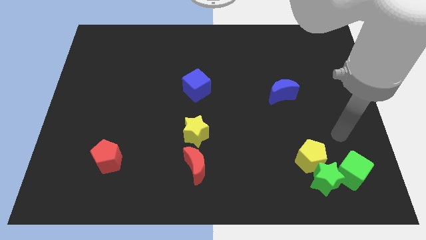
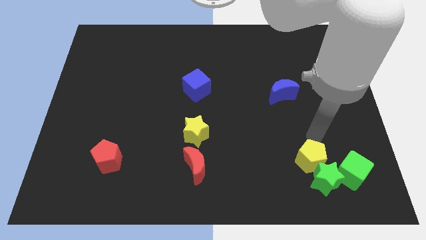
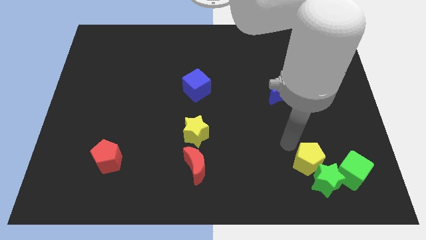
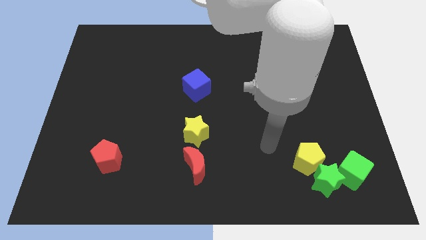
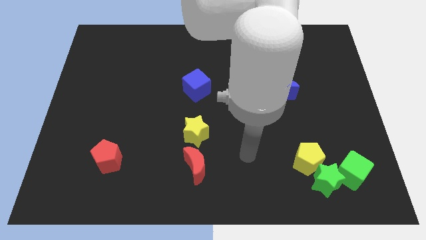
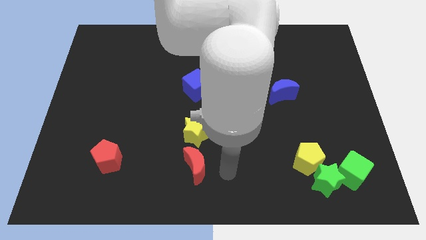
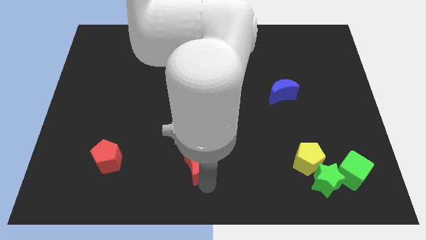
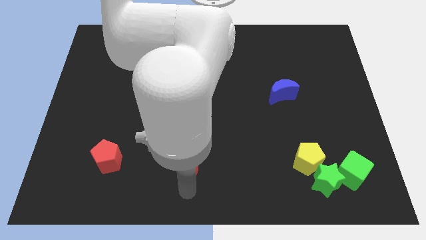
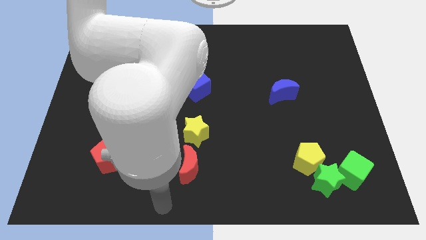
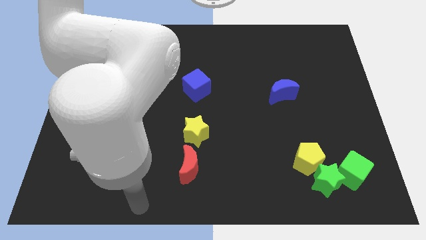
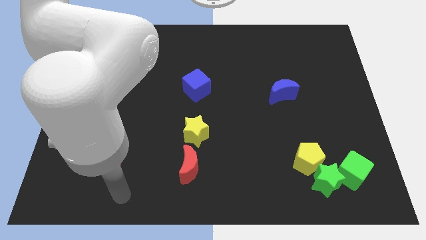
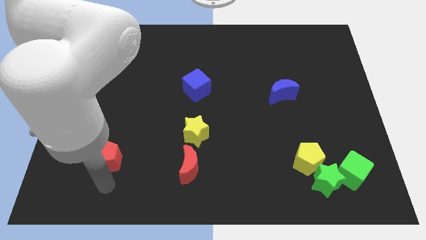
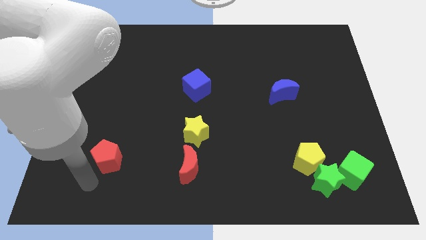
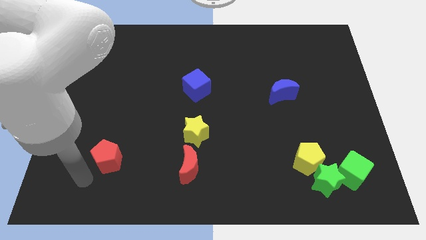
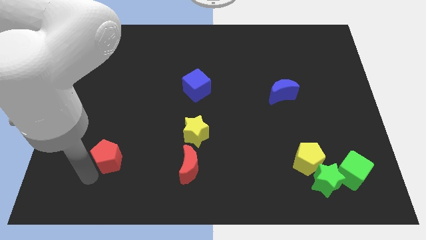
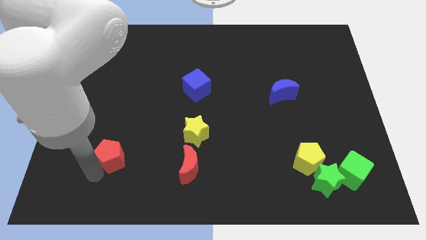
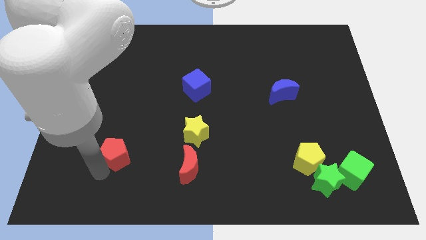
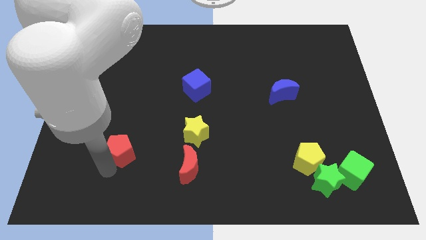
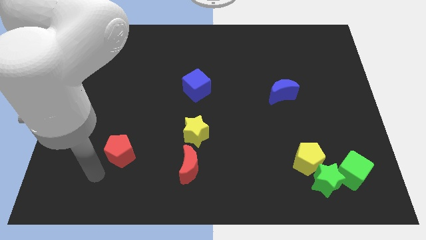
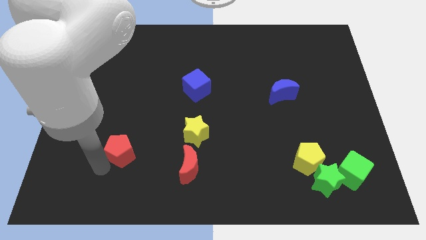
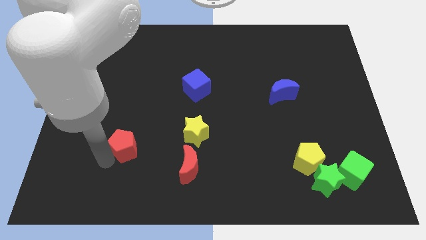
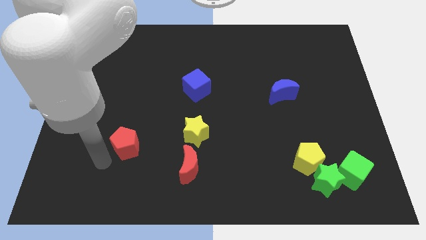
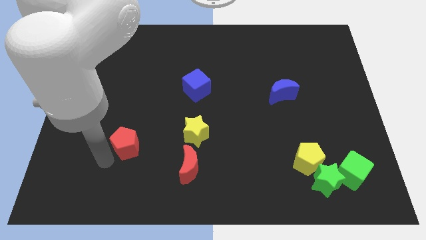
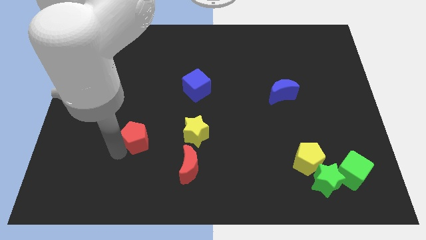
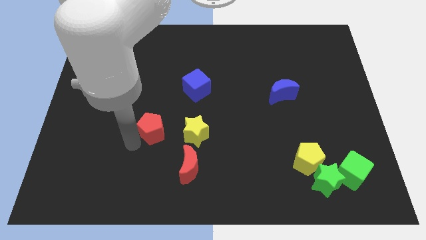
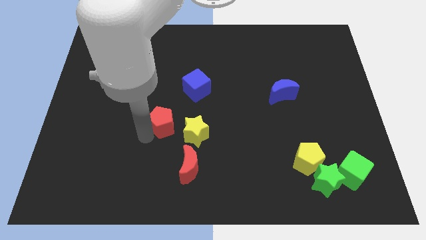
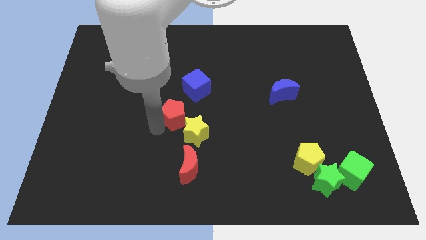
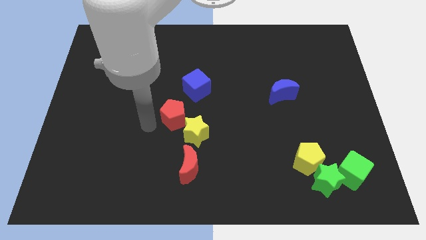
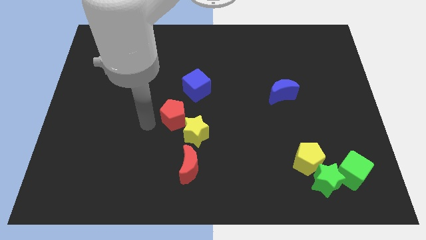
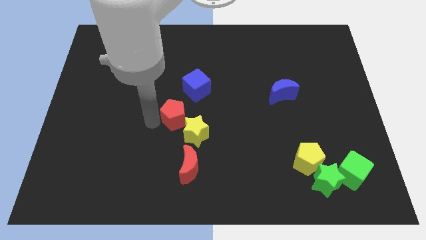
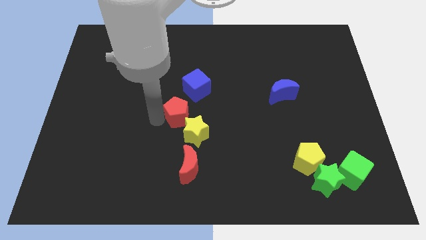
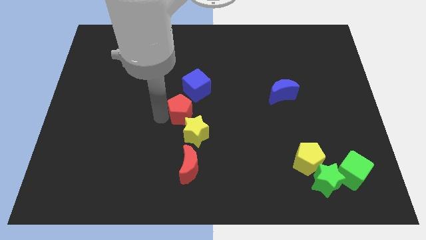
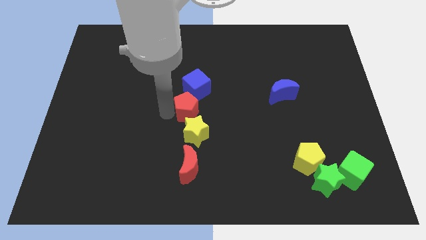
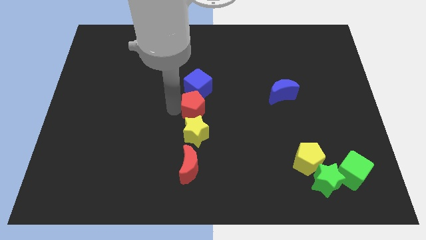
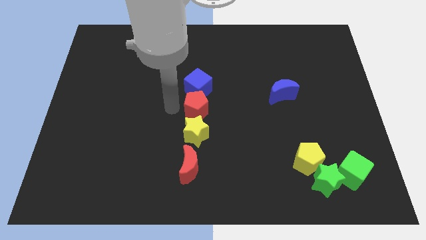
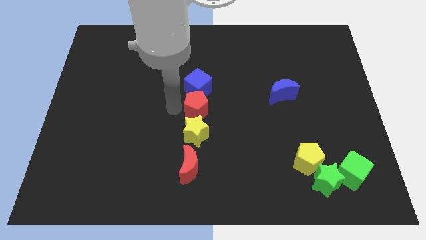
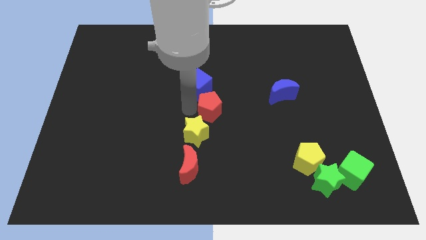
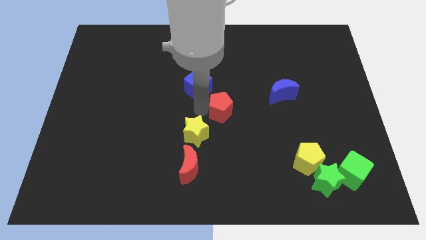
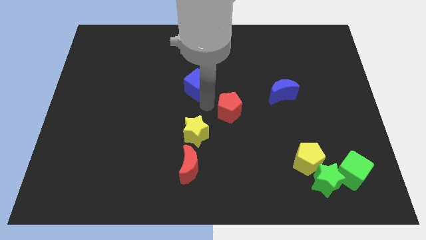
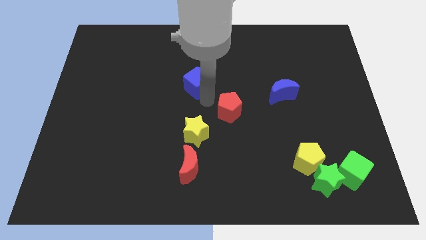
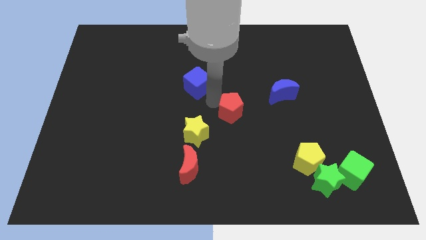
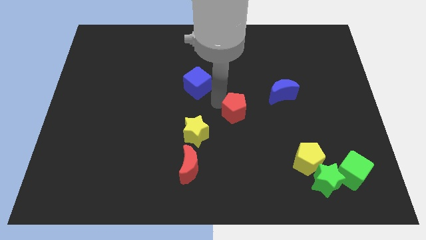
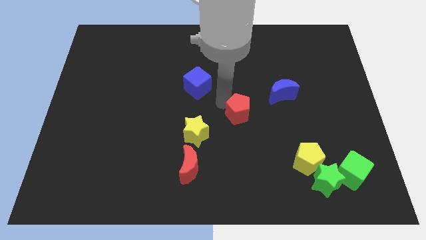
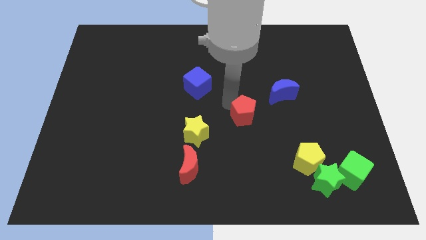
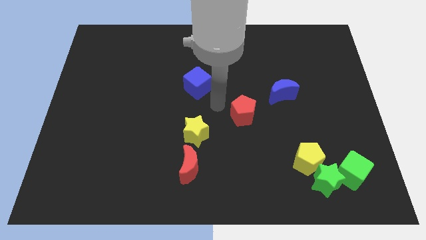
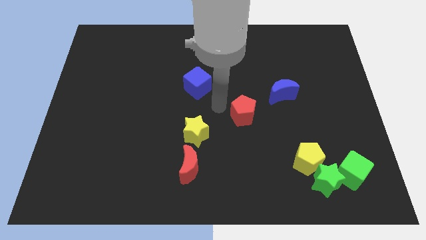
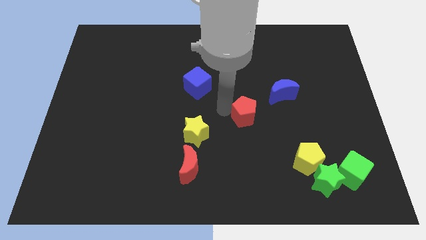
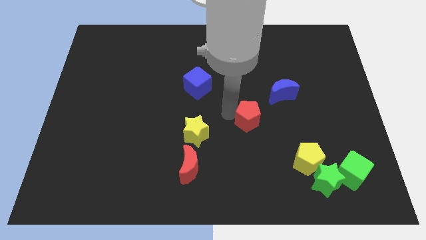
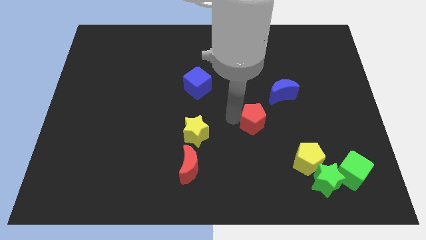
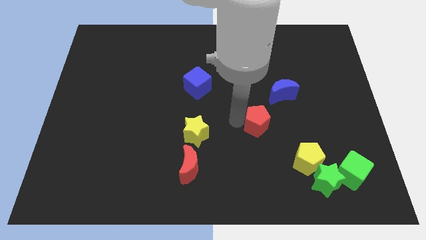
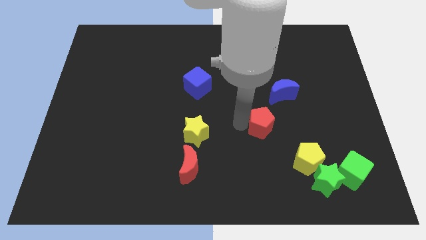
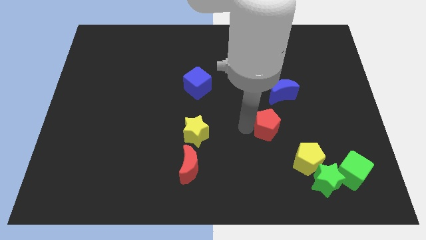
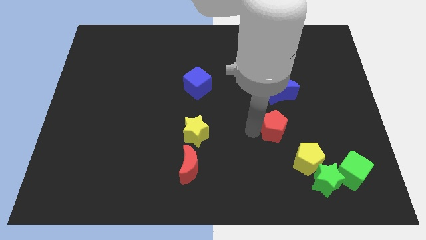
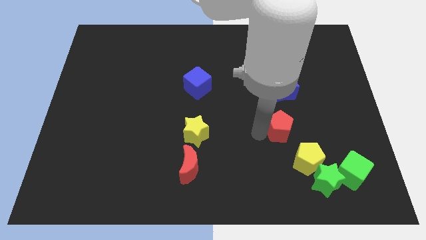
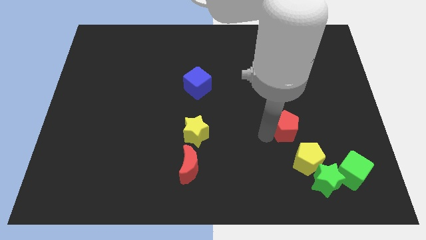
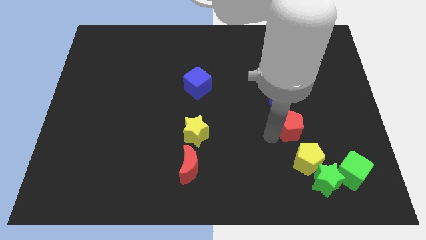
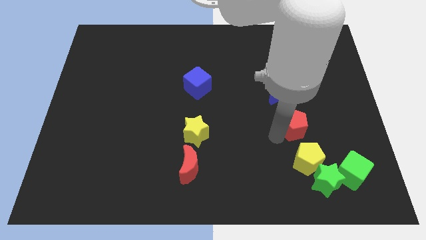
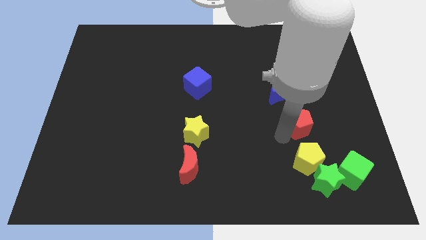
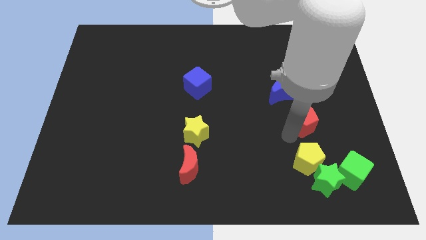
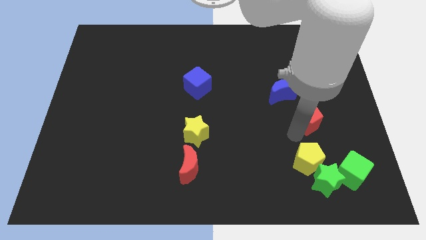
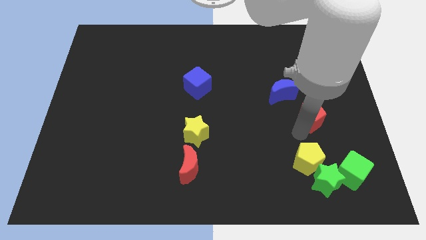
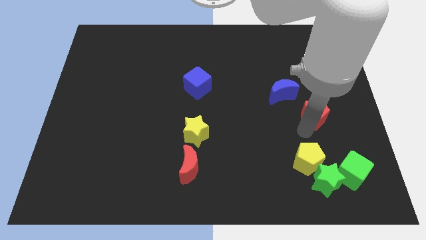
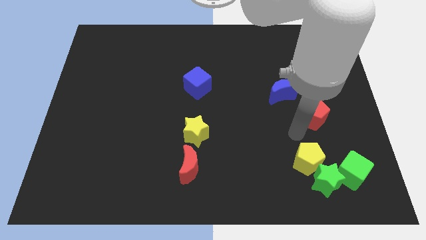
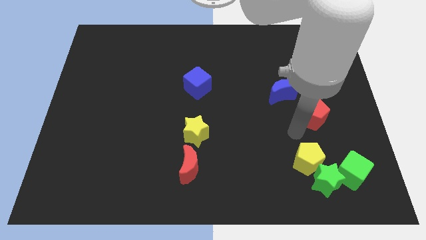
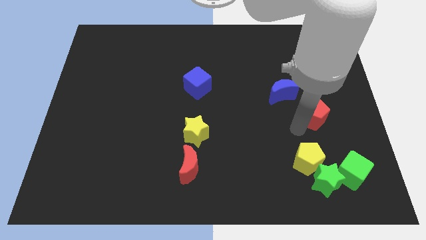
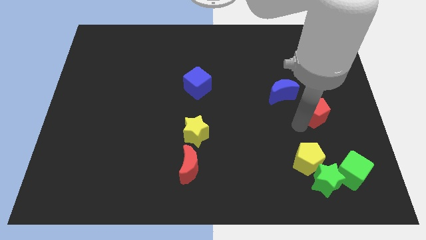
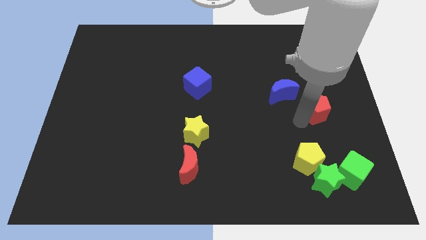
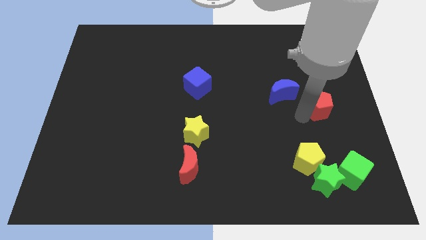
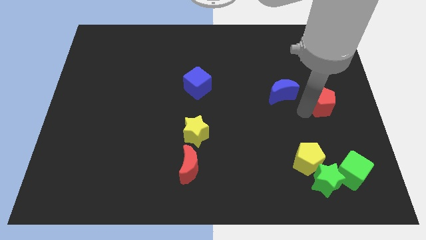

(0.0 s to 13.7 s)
push the red pentagon to the right side
